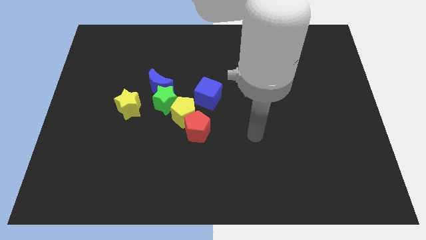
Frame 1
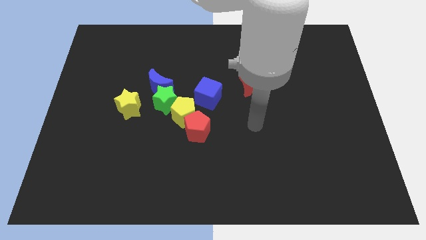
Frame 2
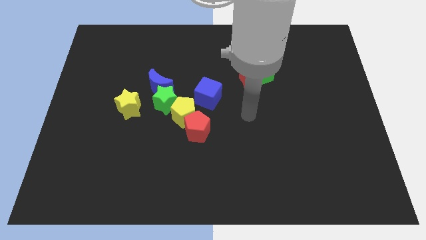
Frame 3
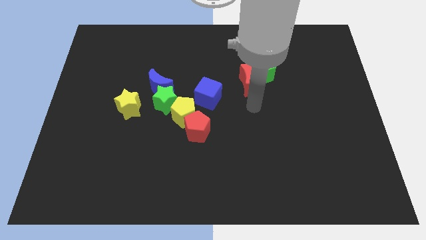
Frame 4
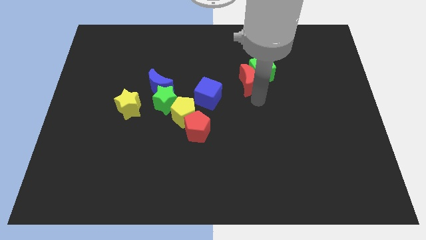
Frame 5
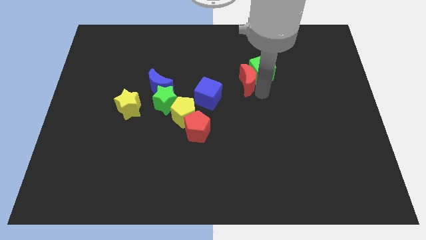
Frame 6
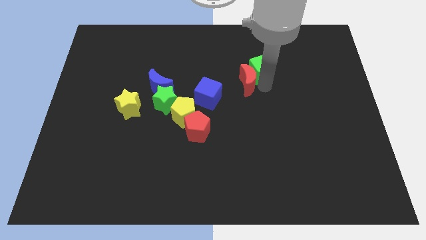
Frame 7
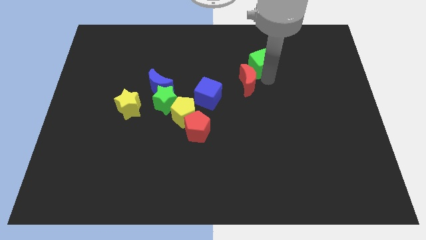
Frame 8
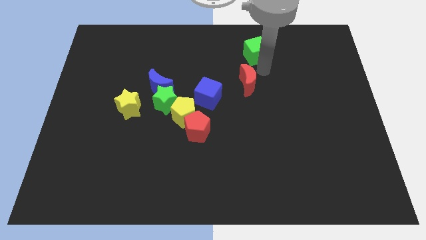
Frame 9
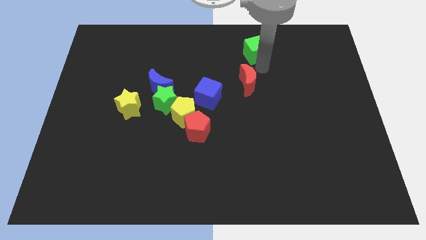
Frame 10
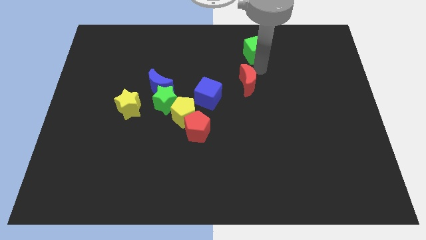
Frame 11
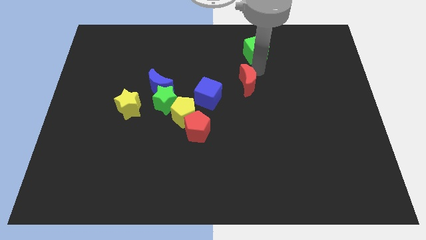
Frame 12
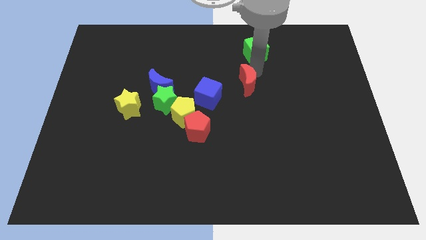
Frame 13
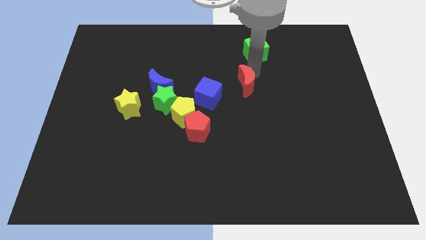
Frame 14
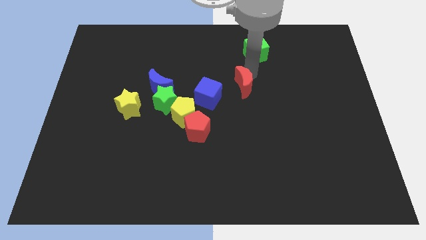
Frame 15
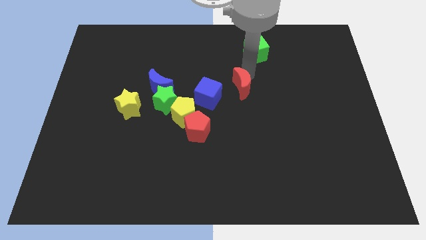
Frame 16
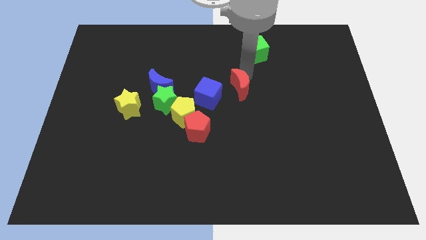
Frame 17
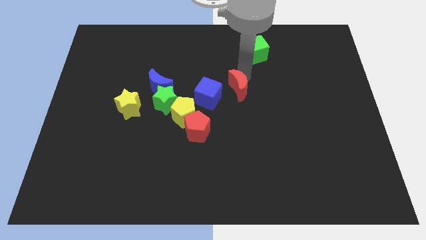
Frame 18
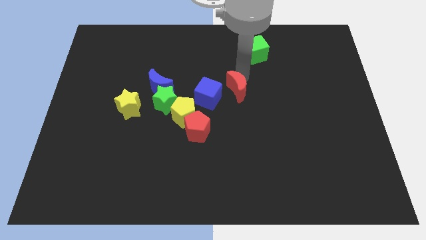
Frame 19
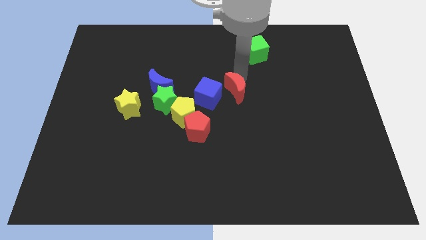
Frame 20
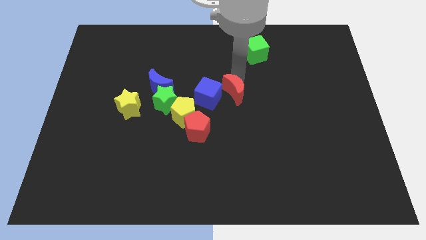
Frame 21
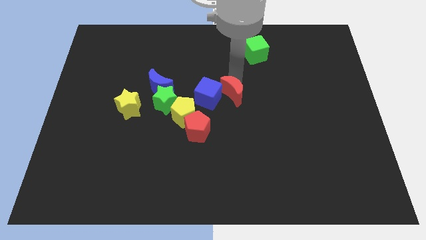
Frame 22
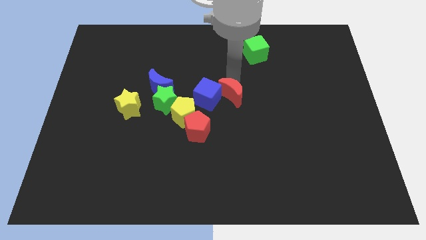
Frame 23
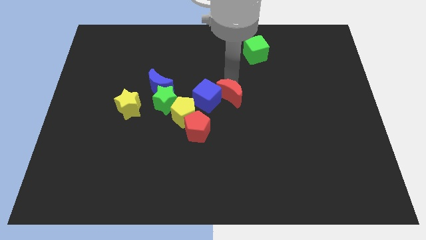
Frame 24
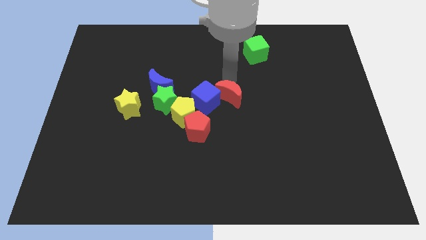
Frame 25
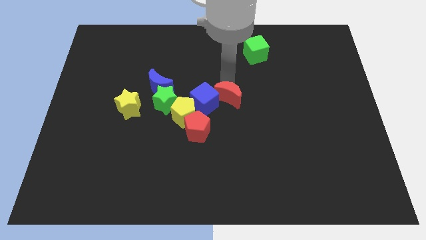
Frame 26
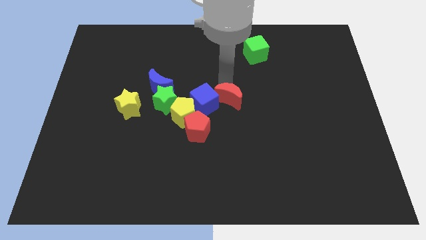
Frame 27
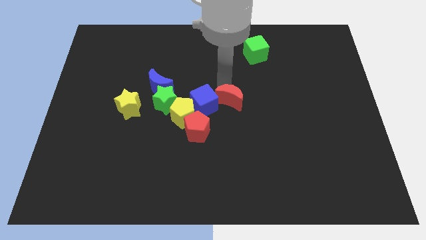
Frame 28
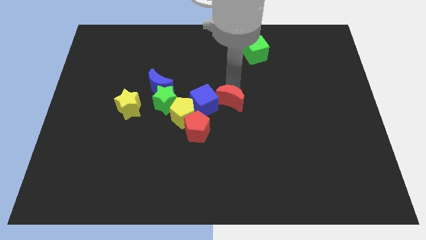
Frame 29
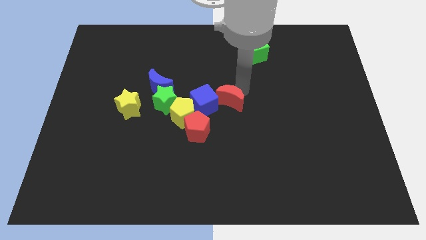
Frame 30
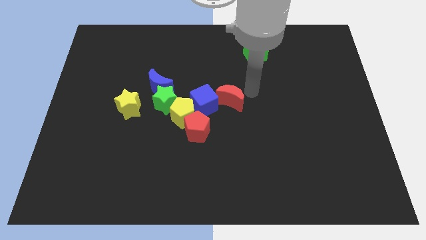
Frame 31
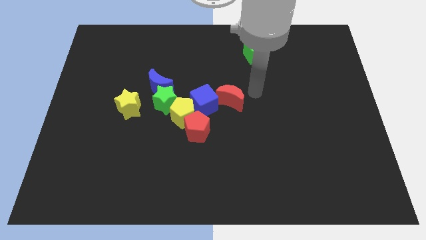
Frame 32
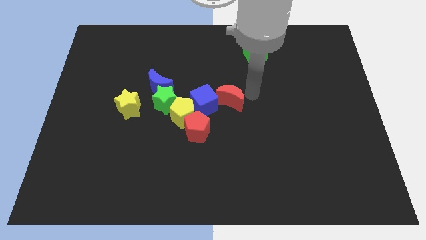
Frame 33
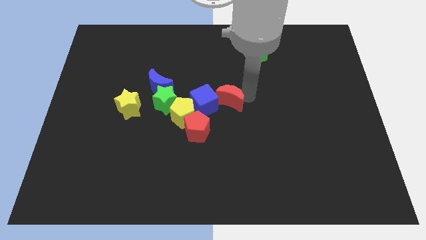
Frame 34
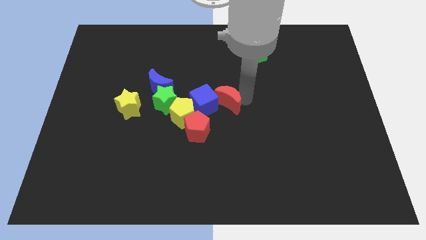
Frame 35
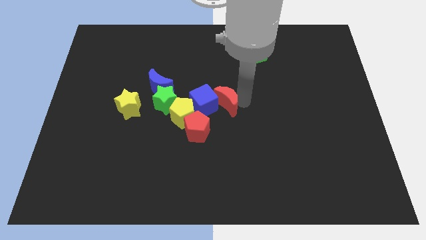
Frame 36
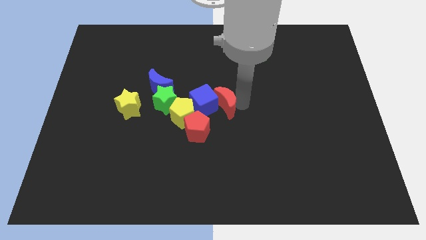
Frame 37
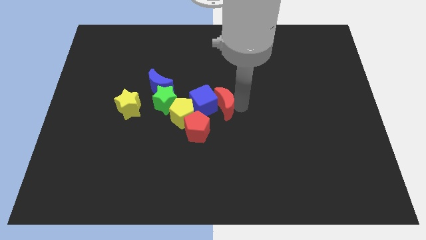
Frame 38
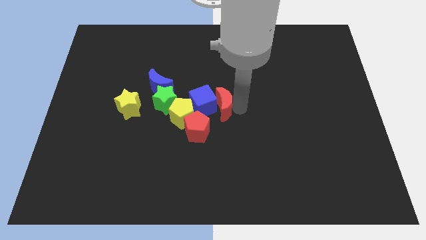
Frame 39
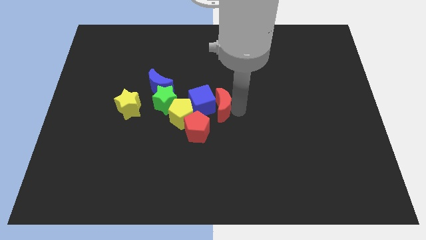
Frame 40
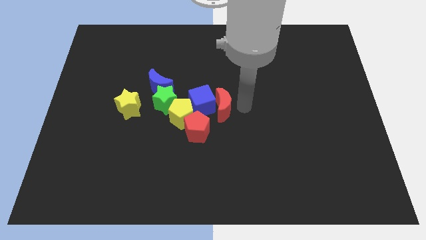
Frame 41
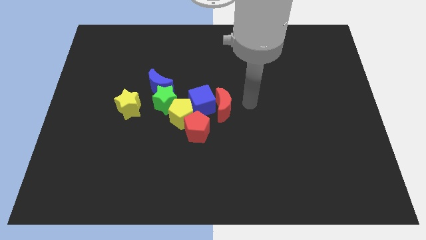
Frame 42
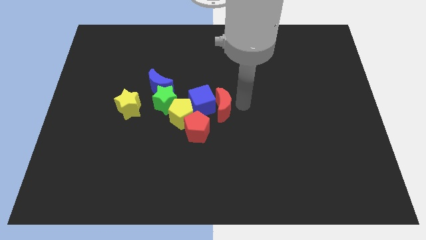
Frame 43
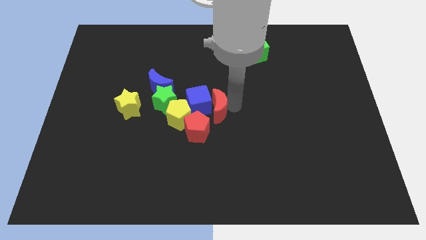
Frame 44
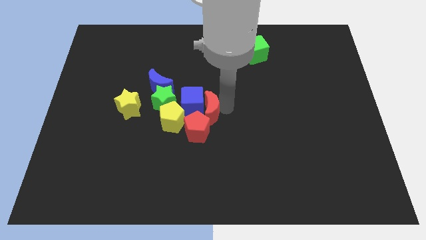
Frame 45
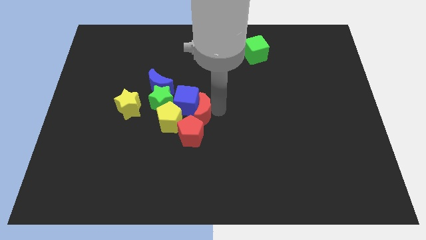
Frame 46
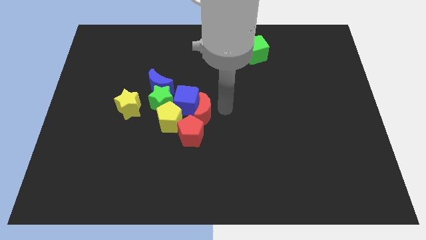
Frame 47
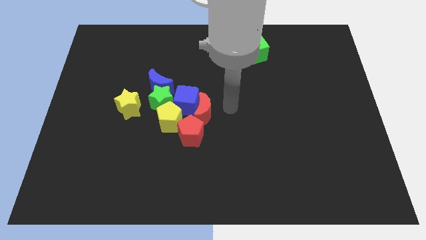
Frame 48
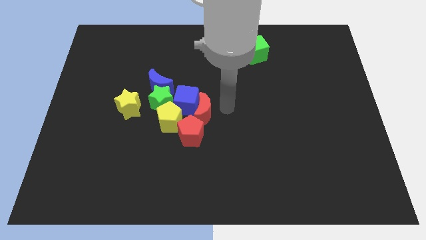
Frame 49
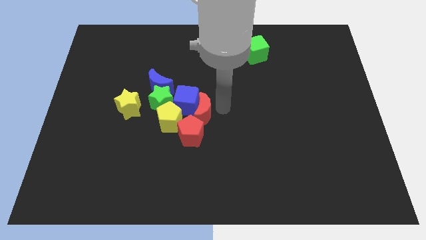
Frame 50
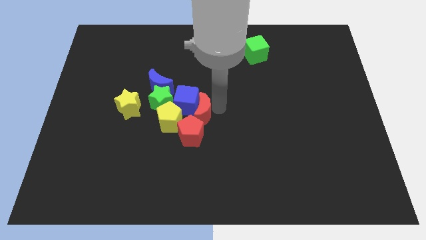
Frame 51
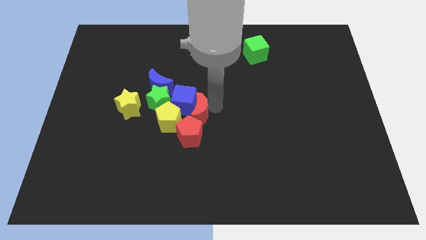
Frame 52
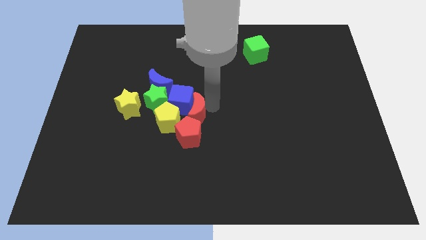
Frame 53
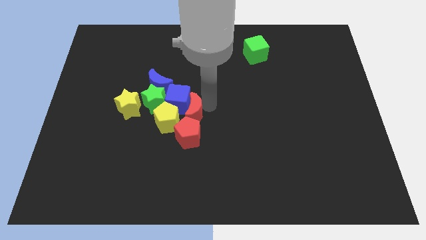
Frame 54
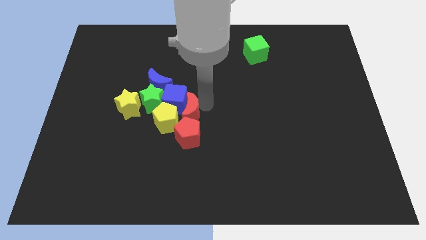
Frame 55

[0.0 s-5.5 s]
put the red moon close to the yellow pentagon

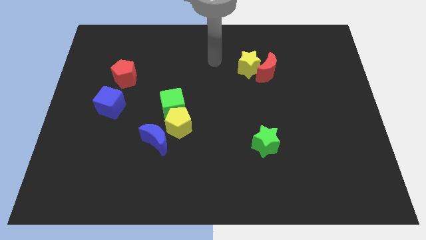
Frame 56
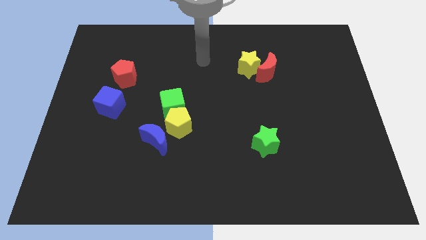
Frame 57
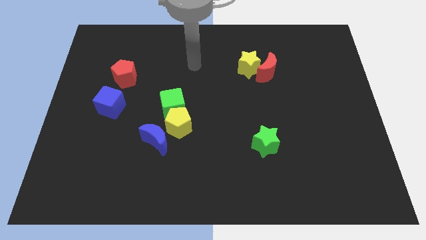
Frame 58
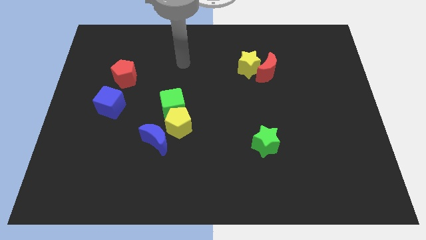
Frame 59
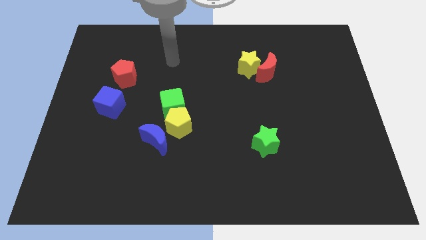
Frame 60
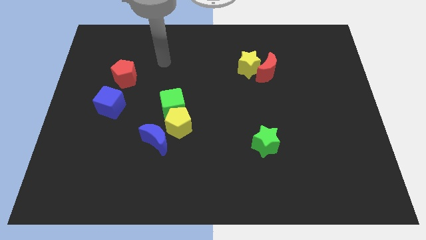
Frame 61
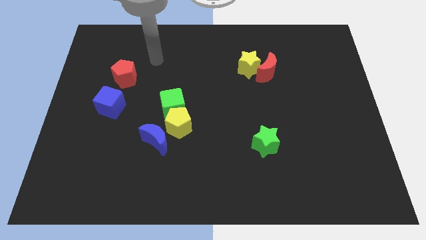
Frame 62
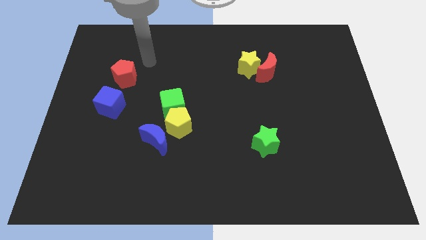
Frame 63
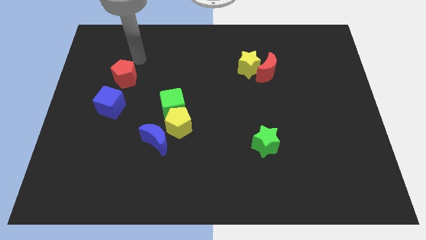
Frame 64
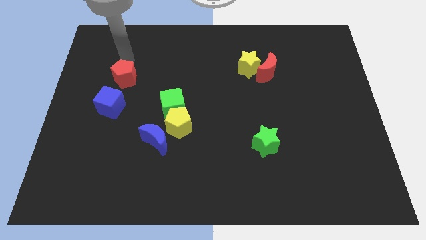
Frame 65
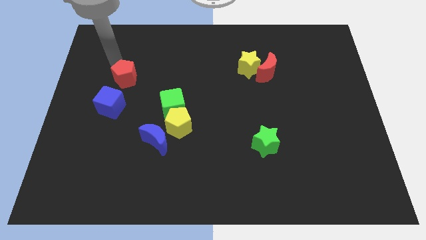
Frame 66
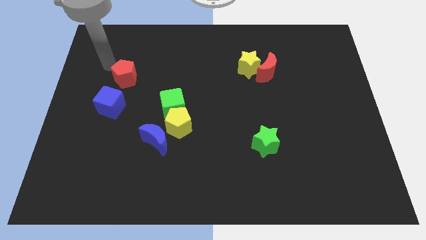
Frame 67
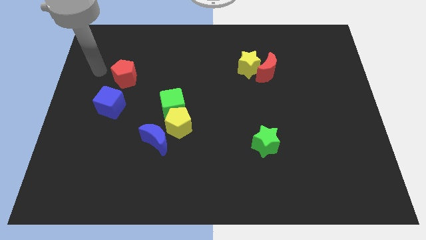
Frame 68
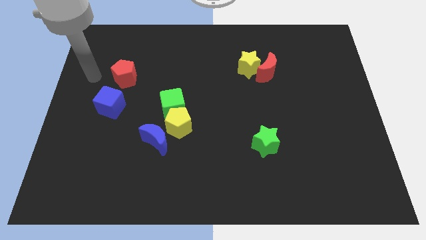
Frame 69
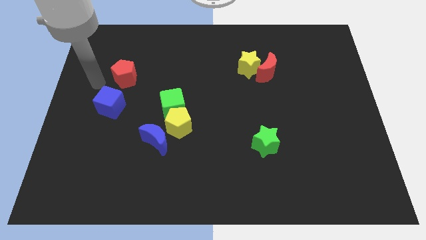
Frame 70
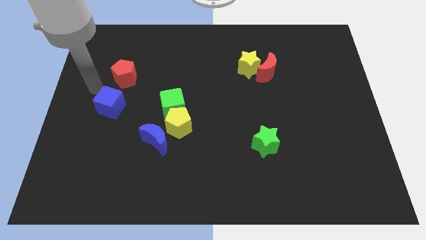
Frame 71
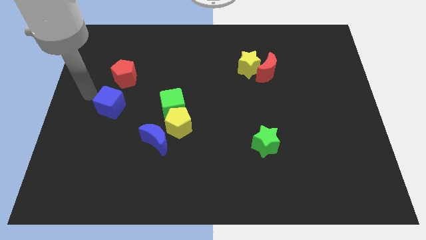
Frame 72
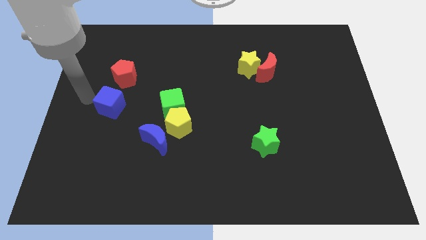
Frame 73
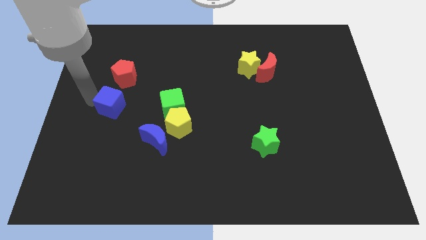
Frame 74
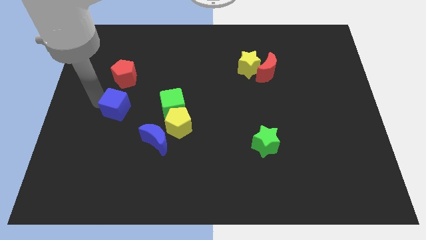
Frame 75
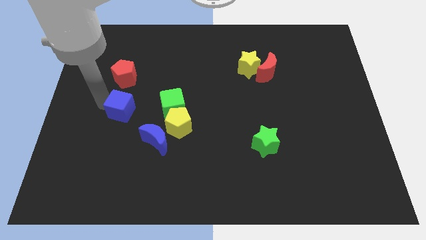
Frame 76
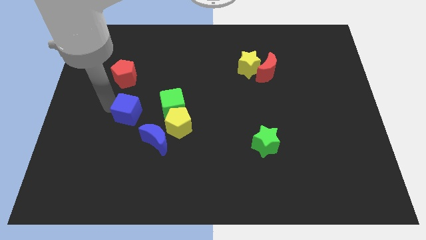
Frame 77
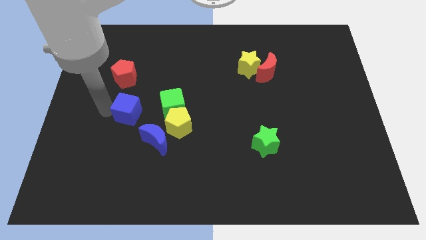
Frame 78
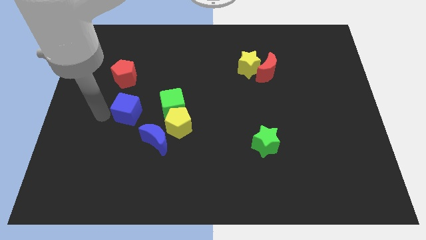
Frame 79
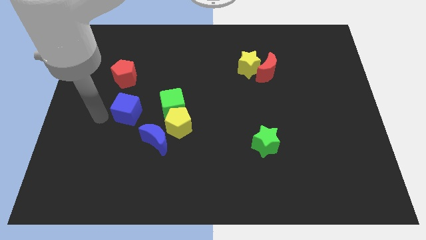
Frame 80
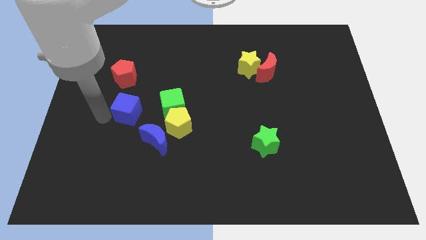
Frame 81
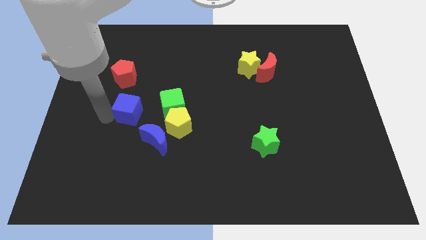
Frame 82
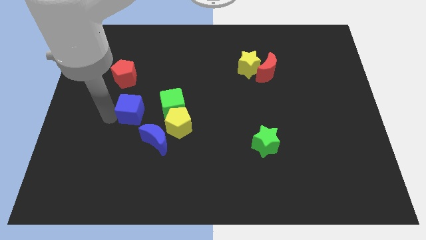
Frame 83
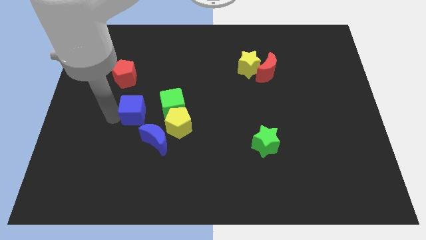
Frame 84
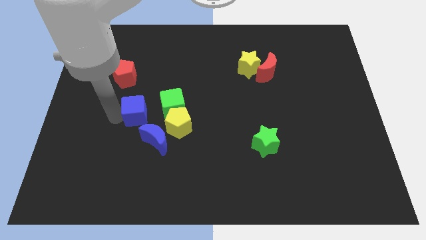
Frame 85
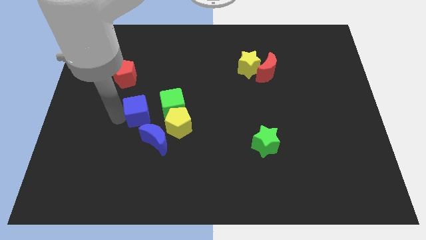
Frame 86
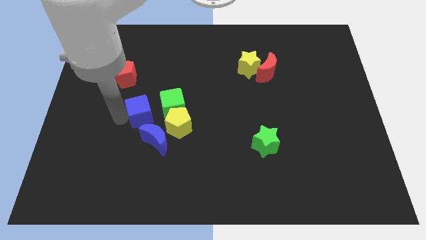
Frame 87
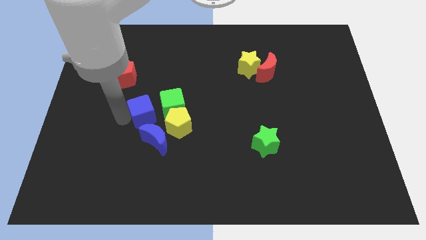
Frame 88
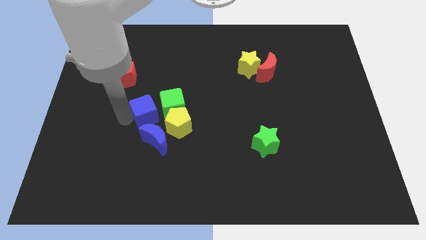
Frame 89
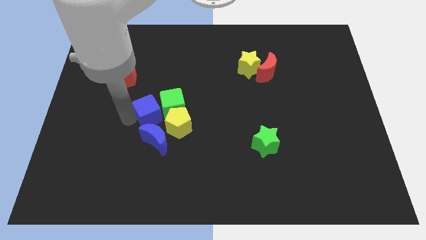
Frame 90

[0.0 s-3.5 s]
slide the blue cube close to the green cube
